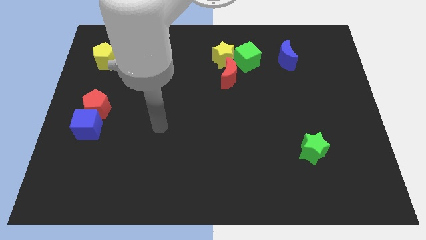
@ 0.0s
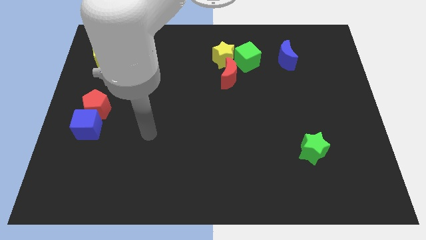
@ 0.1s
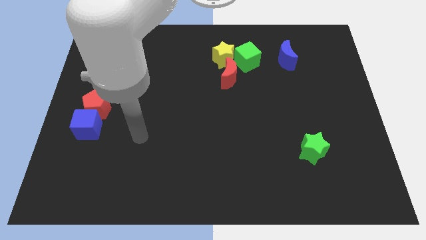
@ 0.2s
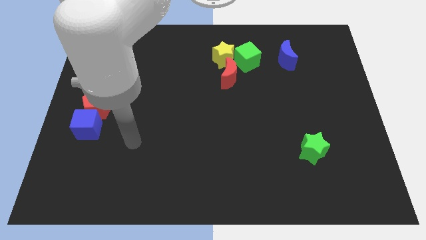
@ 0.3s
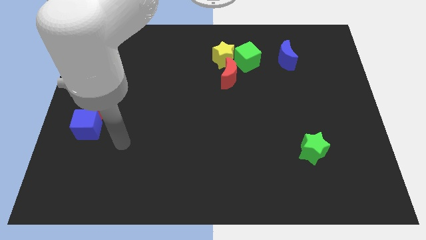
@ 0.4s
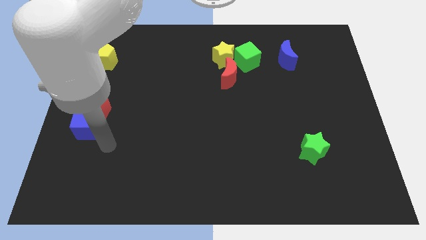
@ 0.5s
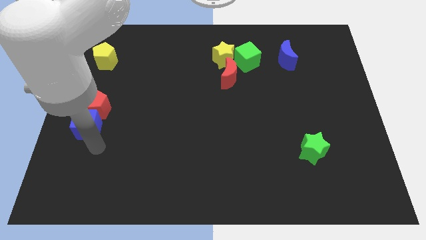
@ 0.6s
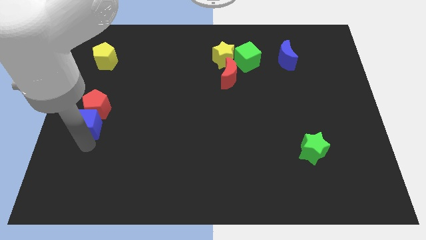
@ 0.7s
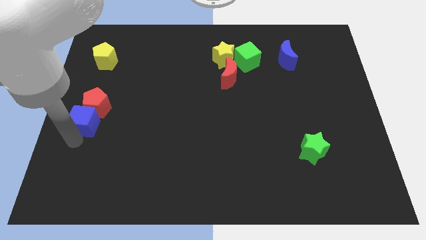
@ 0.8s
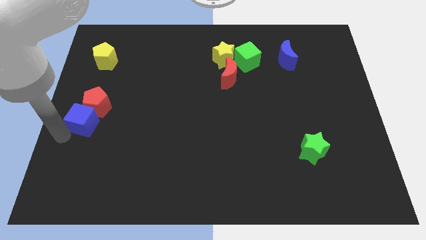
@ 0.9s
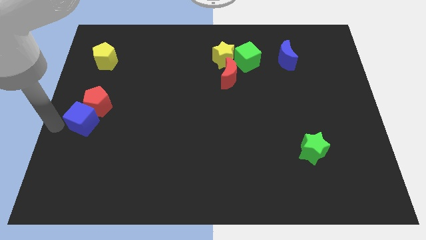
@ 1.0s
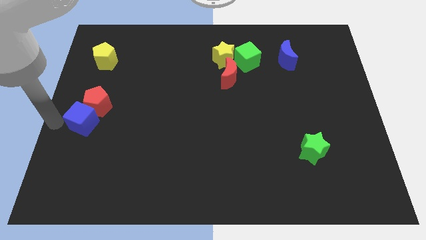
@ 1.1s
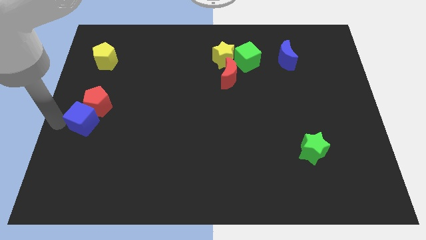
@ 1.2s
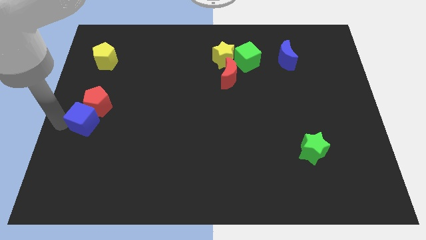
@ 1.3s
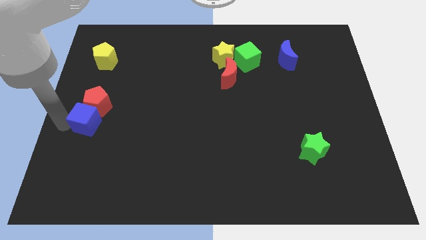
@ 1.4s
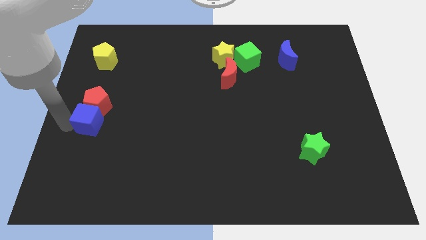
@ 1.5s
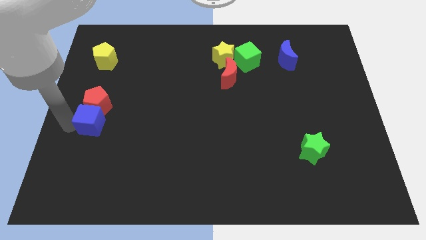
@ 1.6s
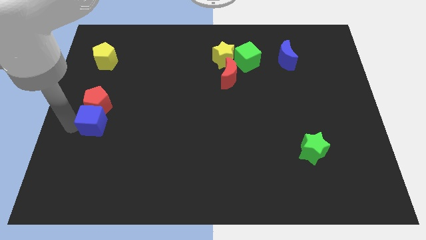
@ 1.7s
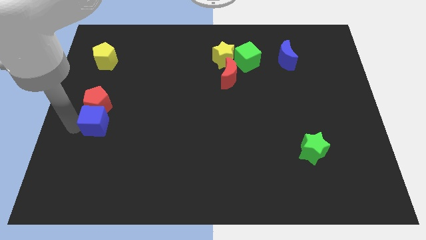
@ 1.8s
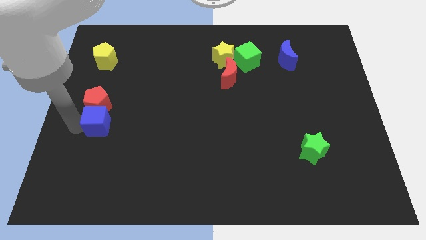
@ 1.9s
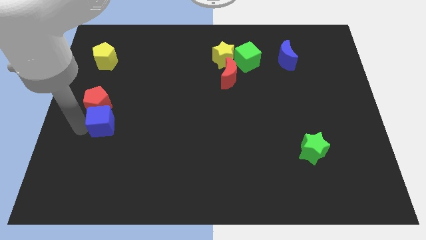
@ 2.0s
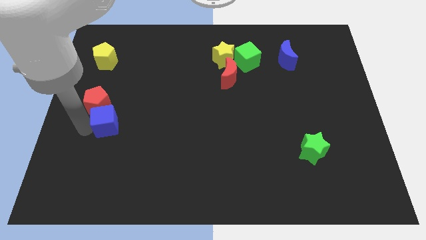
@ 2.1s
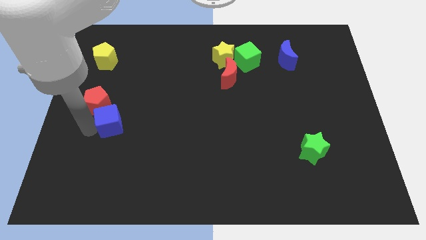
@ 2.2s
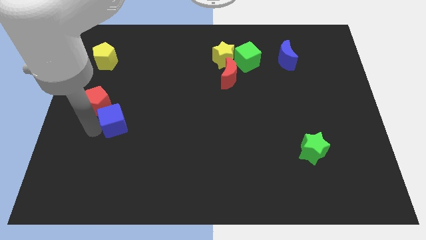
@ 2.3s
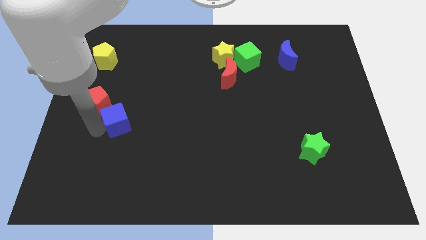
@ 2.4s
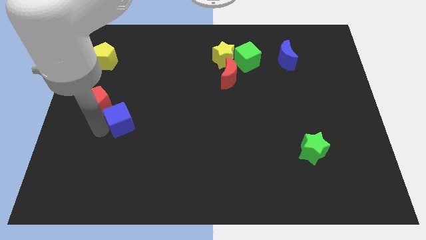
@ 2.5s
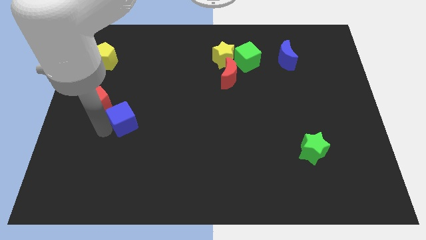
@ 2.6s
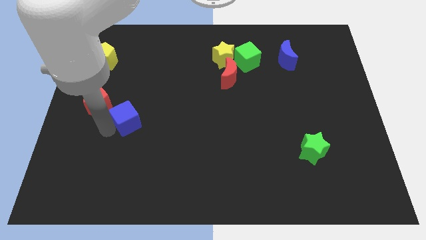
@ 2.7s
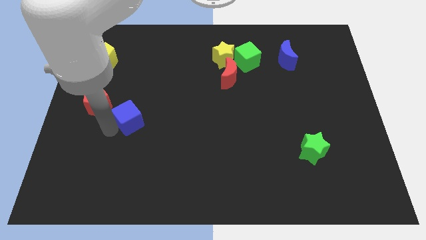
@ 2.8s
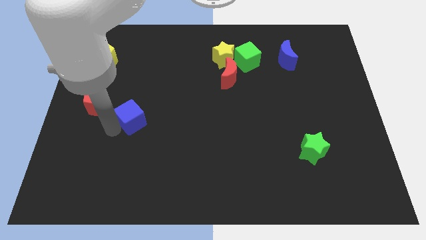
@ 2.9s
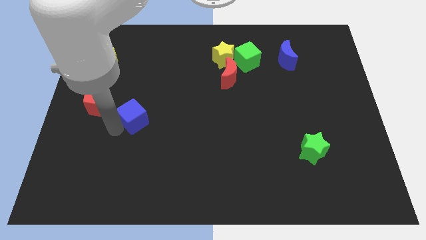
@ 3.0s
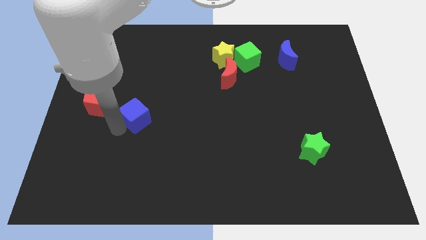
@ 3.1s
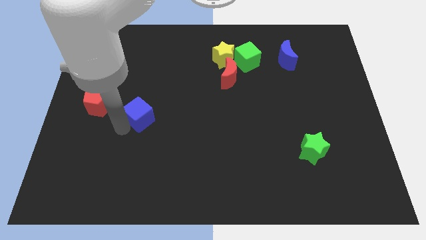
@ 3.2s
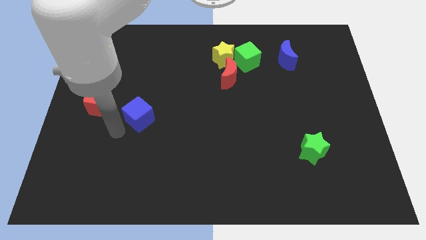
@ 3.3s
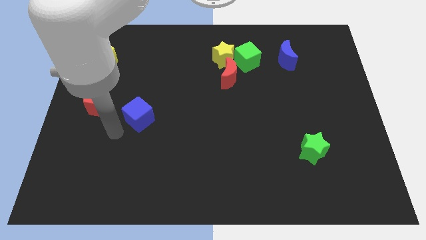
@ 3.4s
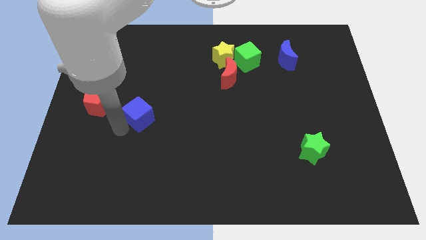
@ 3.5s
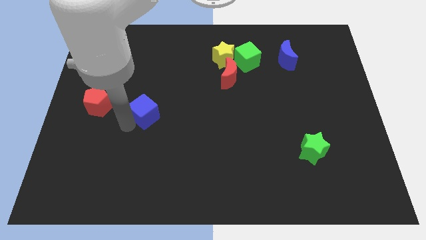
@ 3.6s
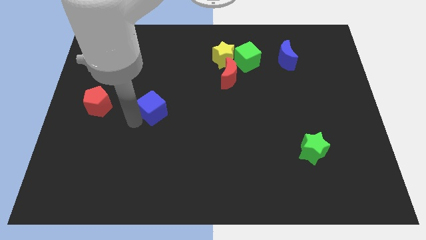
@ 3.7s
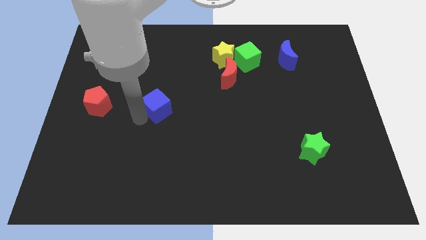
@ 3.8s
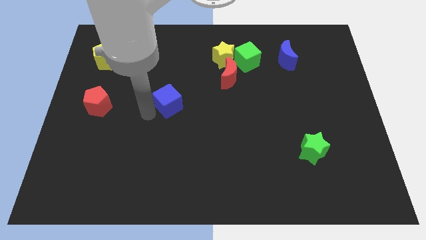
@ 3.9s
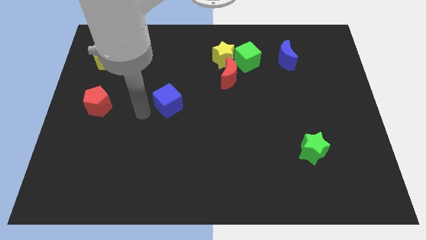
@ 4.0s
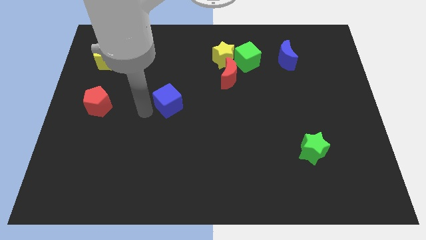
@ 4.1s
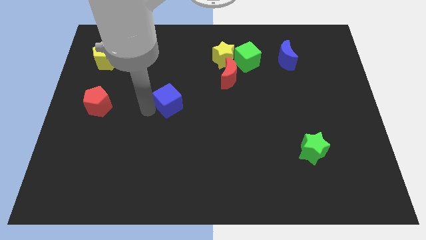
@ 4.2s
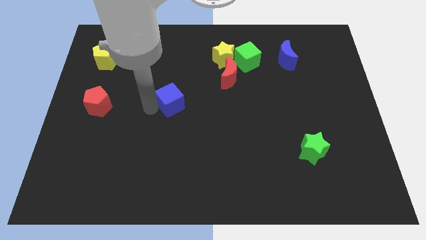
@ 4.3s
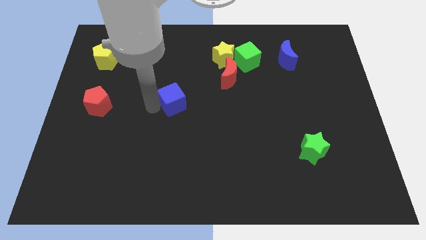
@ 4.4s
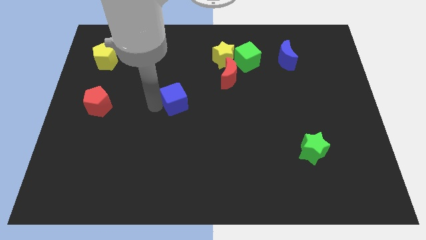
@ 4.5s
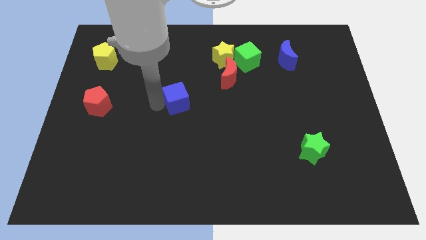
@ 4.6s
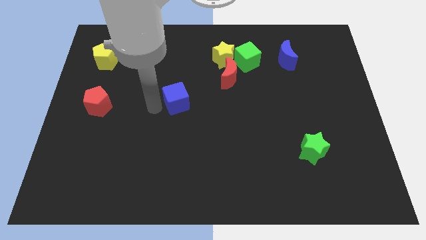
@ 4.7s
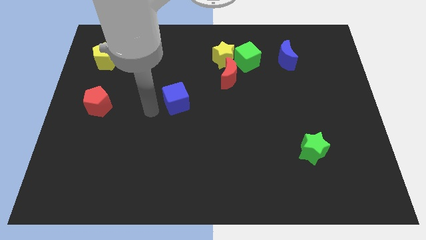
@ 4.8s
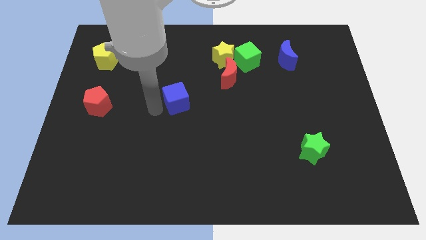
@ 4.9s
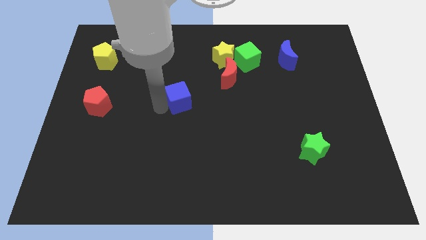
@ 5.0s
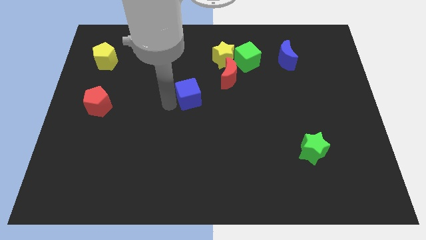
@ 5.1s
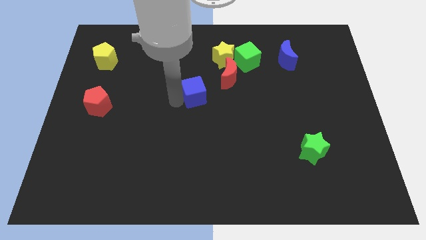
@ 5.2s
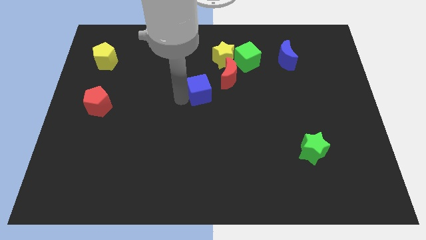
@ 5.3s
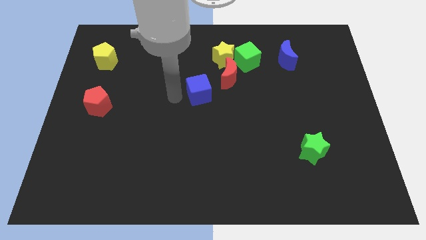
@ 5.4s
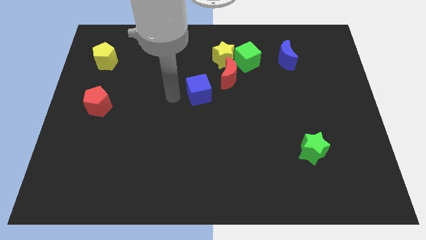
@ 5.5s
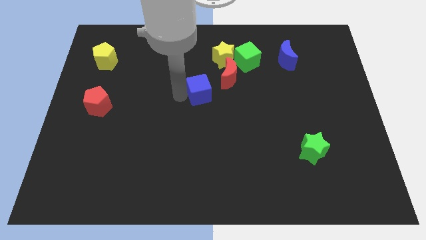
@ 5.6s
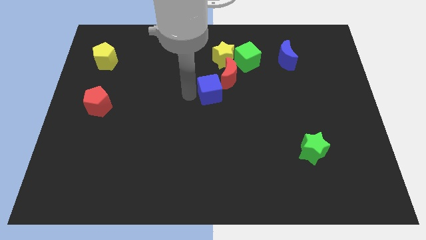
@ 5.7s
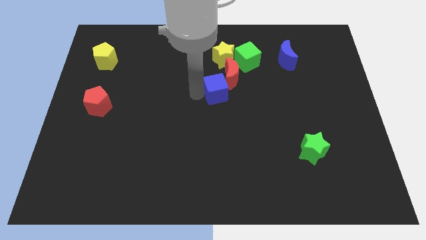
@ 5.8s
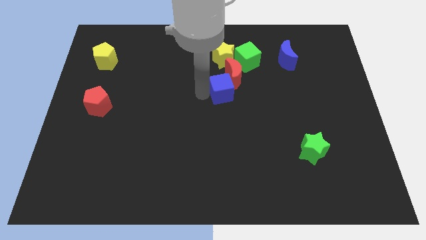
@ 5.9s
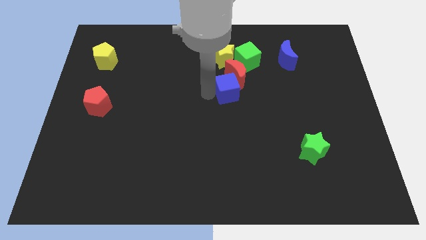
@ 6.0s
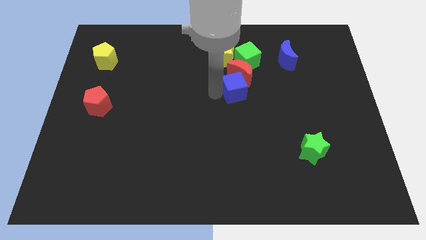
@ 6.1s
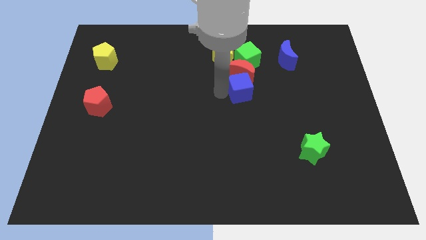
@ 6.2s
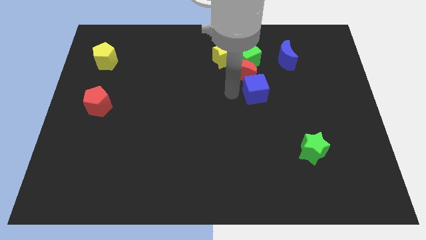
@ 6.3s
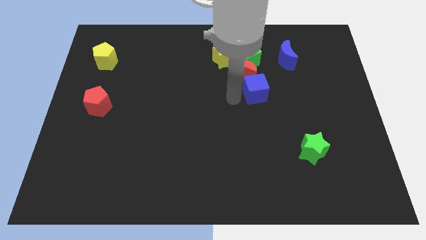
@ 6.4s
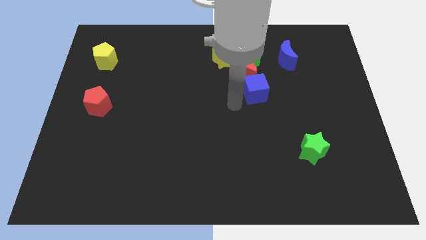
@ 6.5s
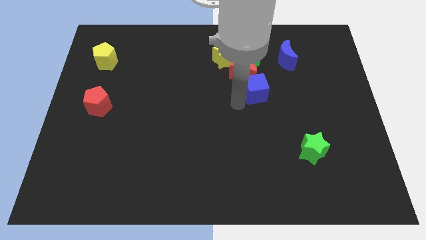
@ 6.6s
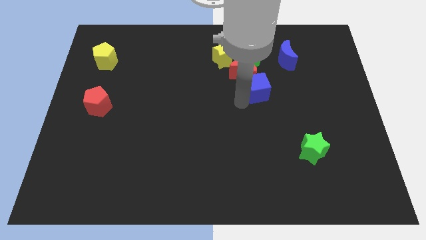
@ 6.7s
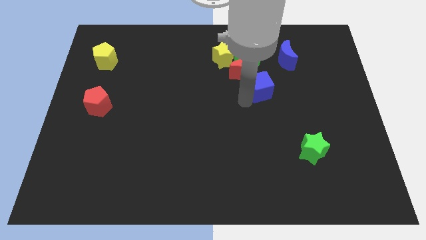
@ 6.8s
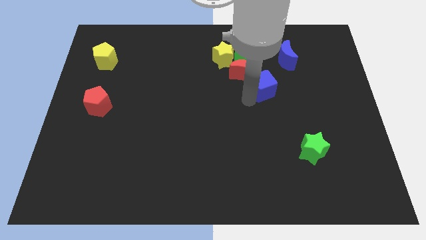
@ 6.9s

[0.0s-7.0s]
slide the blue cube just right of the red moon
